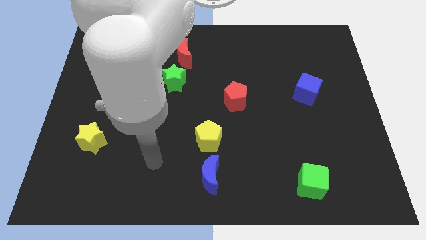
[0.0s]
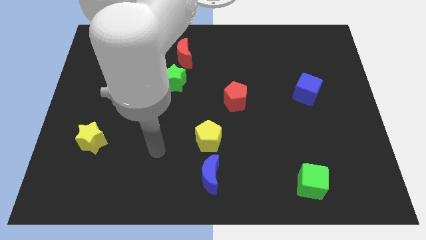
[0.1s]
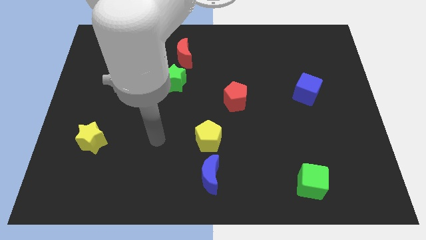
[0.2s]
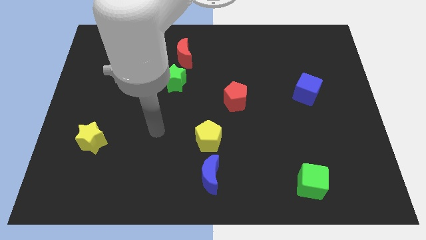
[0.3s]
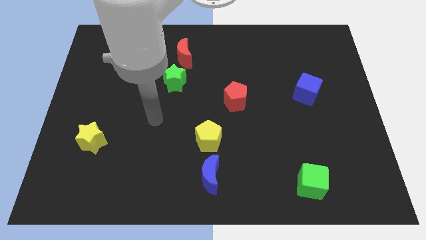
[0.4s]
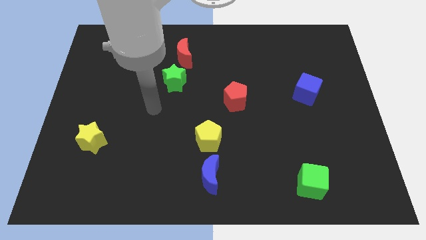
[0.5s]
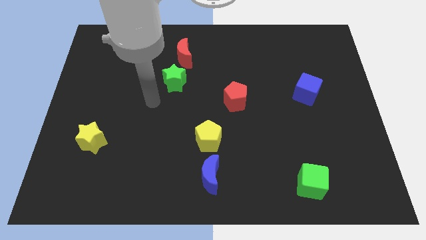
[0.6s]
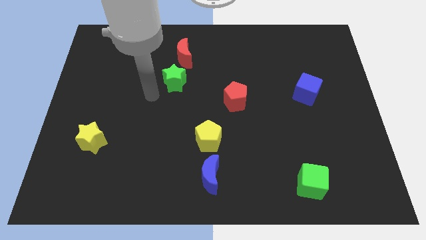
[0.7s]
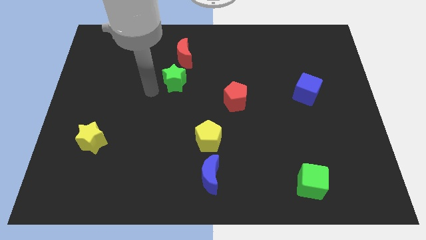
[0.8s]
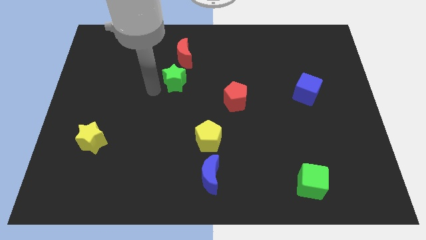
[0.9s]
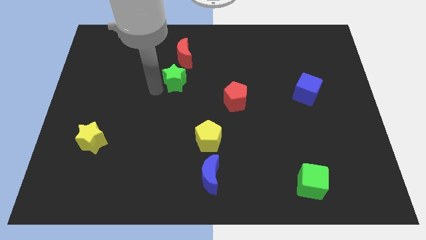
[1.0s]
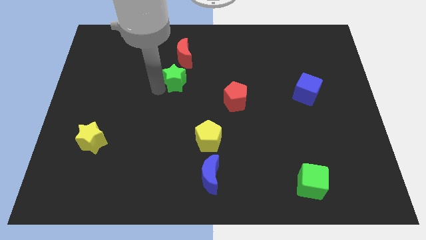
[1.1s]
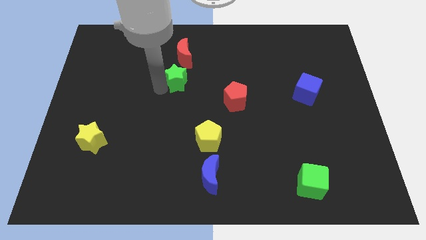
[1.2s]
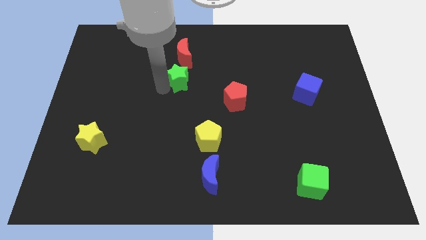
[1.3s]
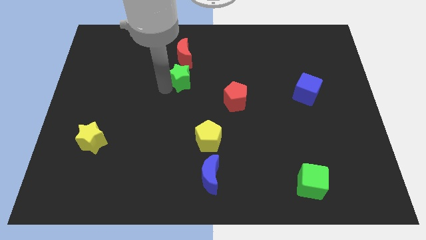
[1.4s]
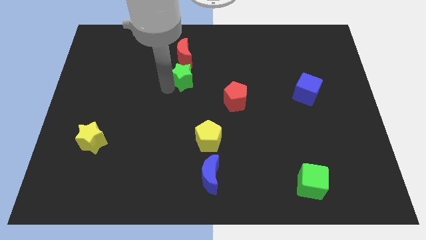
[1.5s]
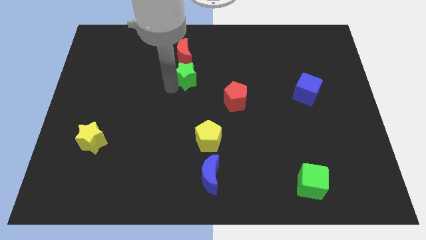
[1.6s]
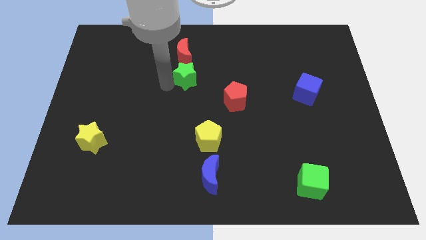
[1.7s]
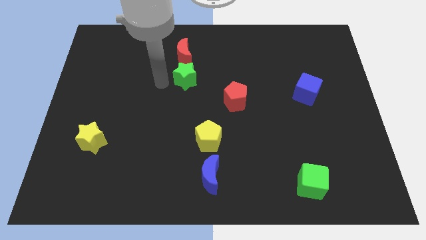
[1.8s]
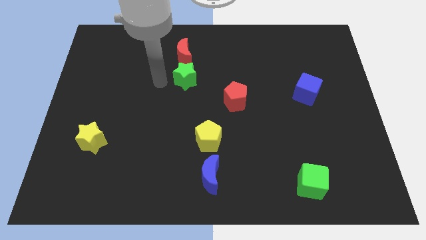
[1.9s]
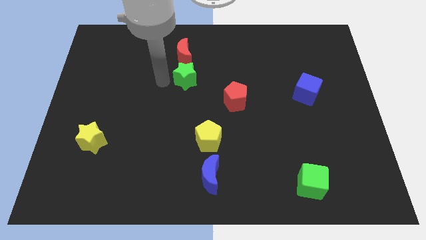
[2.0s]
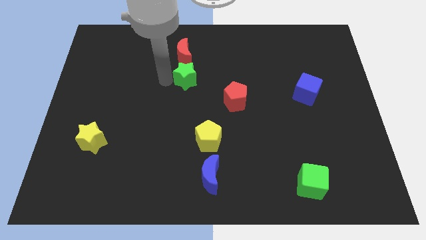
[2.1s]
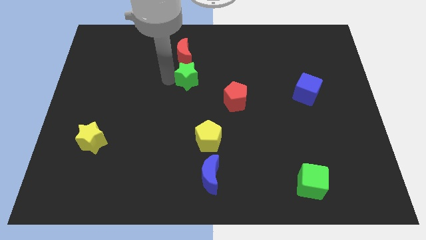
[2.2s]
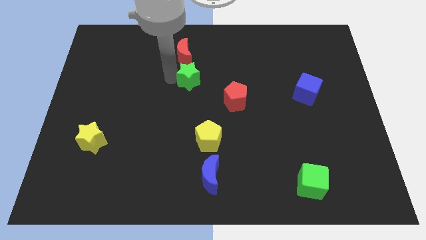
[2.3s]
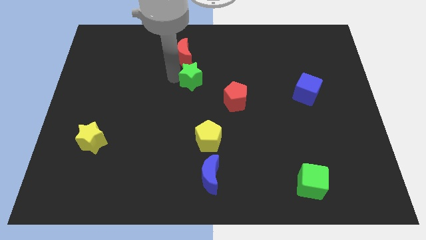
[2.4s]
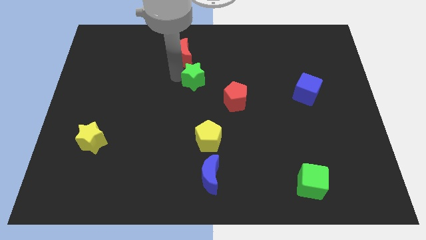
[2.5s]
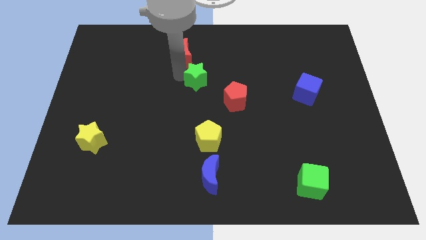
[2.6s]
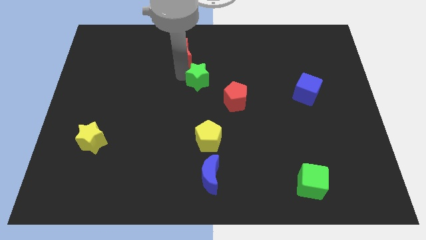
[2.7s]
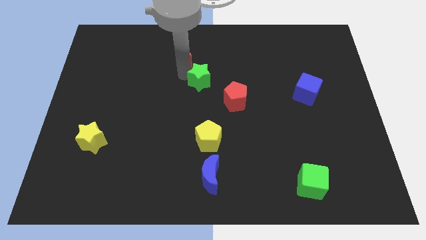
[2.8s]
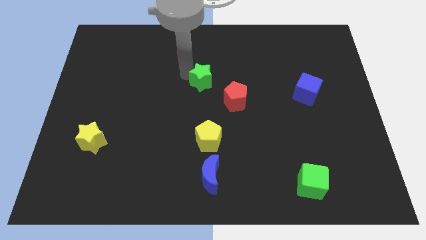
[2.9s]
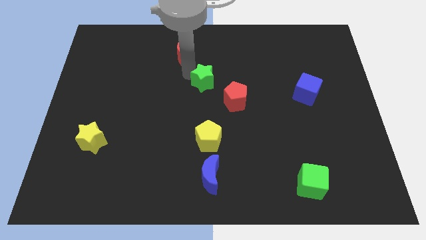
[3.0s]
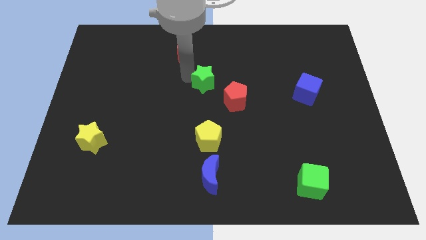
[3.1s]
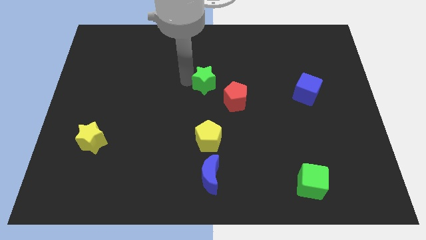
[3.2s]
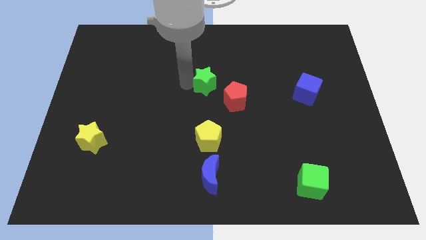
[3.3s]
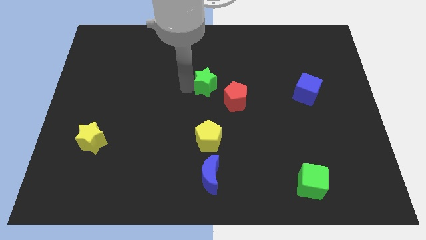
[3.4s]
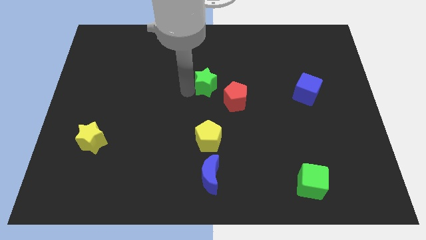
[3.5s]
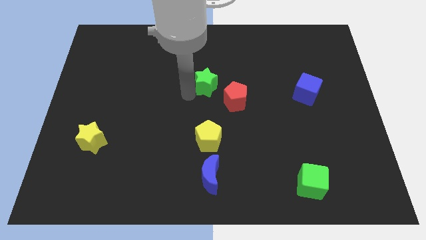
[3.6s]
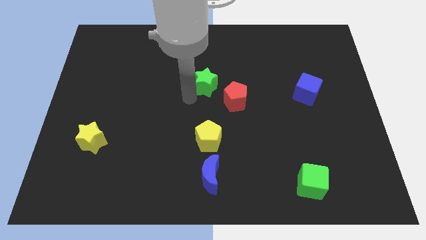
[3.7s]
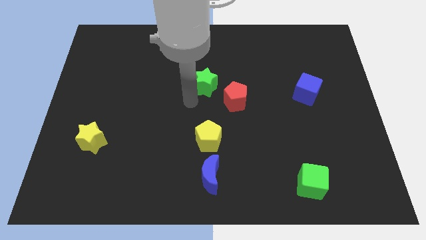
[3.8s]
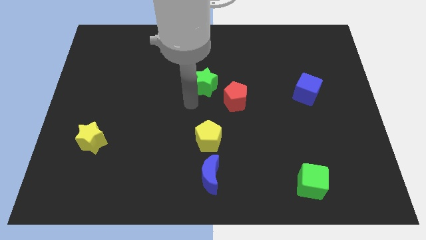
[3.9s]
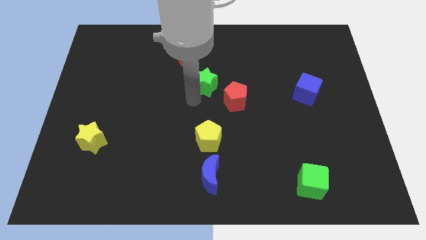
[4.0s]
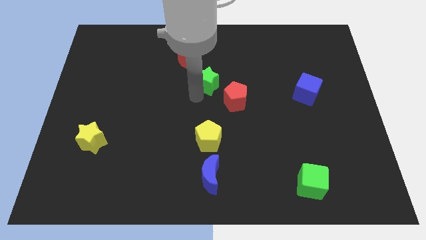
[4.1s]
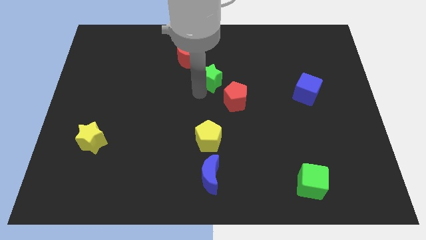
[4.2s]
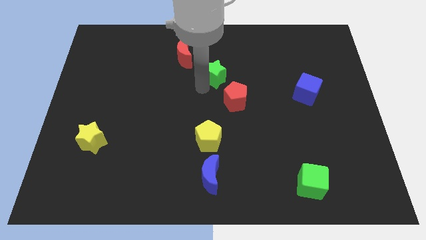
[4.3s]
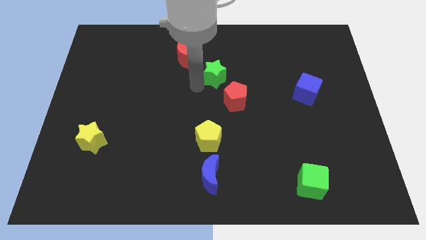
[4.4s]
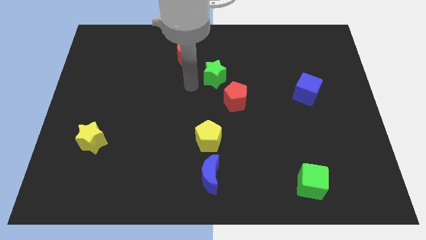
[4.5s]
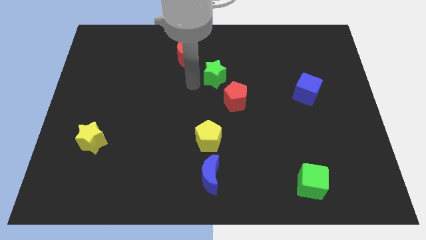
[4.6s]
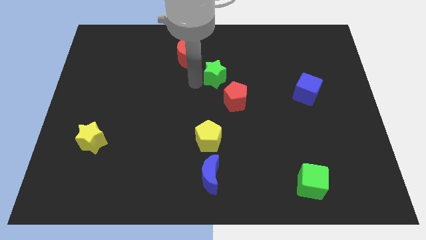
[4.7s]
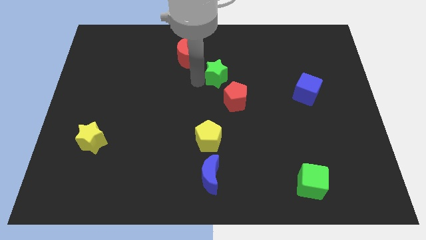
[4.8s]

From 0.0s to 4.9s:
slide the green star above the red pentagon

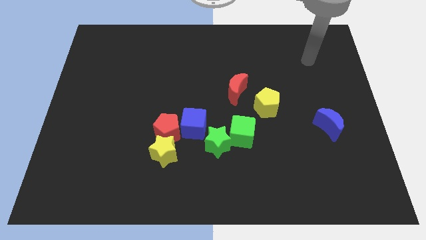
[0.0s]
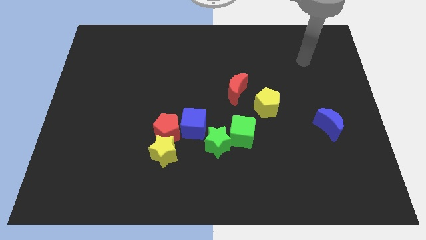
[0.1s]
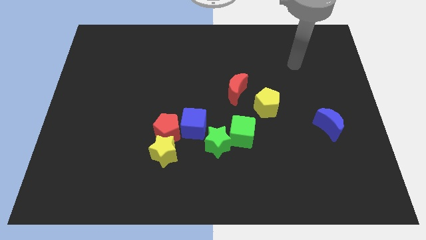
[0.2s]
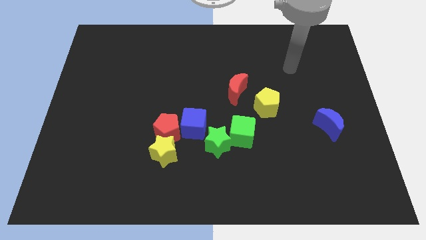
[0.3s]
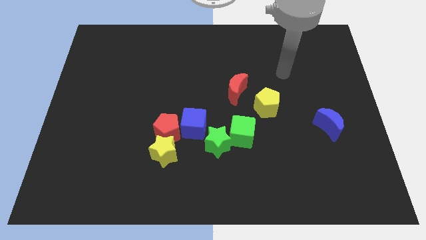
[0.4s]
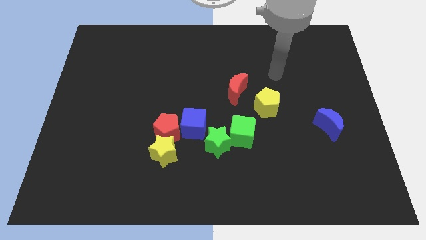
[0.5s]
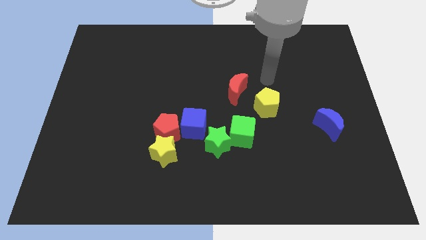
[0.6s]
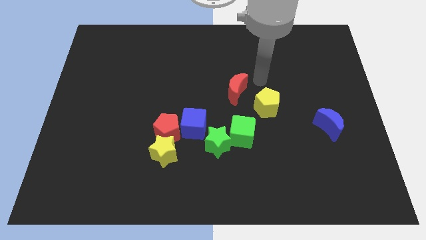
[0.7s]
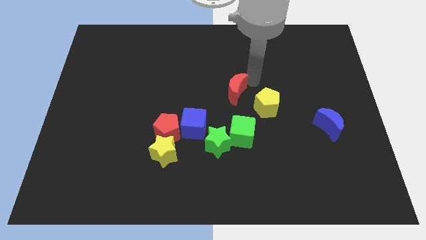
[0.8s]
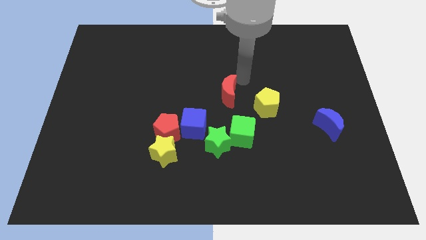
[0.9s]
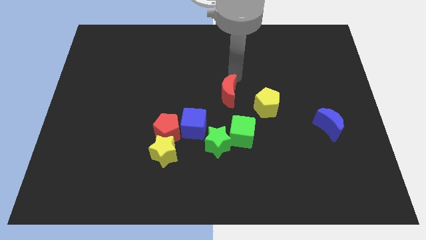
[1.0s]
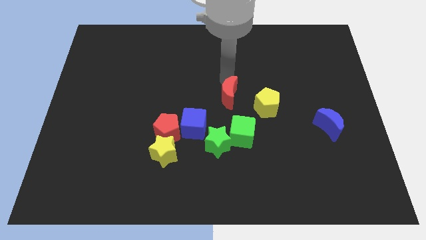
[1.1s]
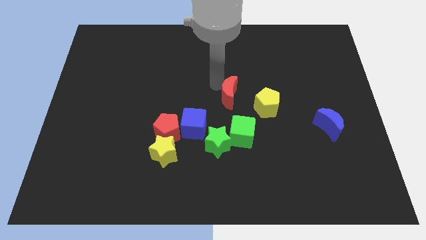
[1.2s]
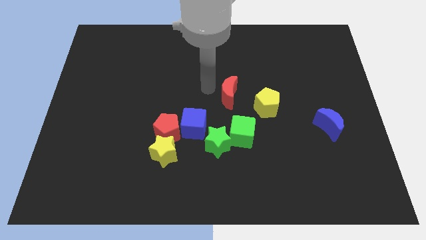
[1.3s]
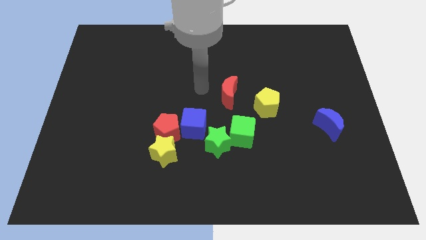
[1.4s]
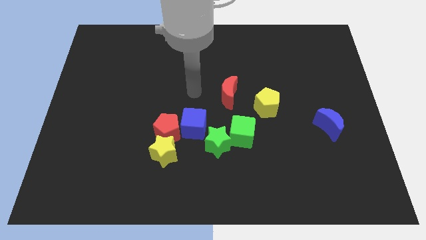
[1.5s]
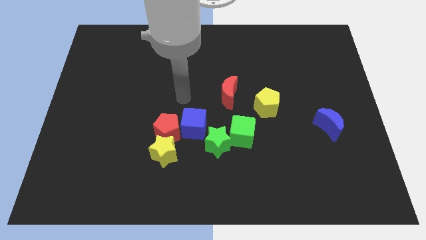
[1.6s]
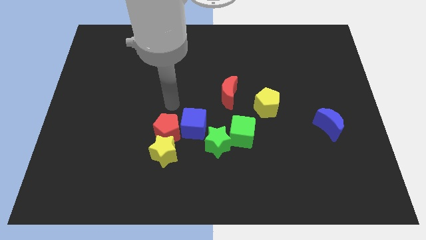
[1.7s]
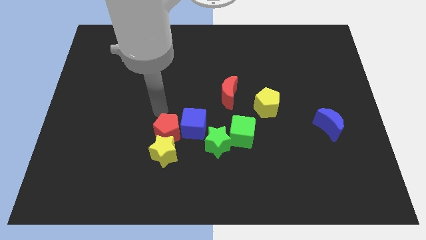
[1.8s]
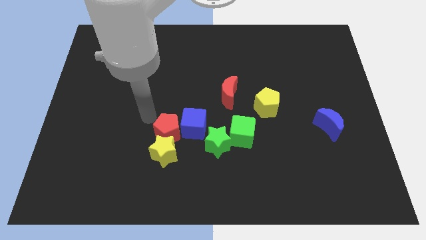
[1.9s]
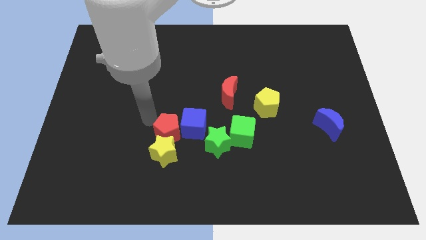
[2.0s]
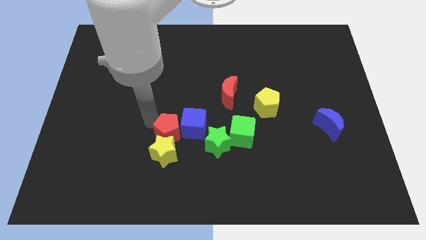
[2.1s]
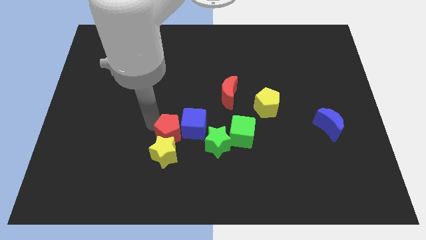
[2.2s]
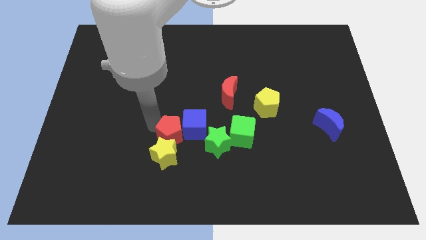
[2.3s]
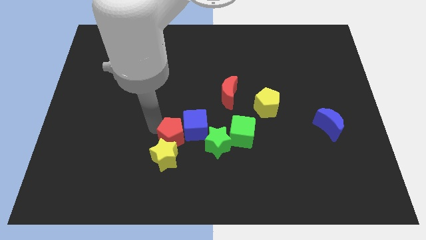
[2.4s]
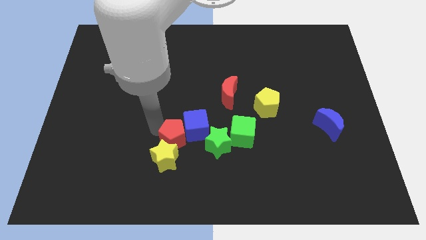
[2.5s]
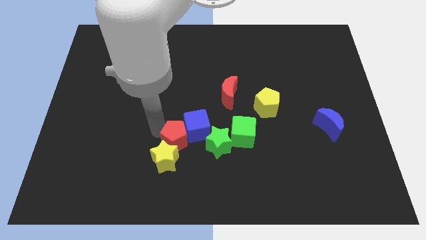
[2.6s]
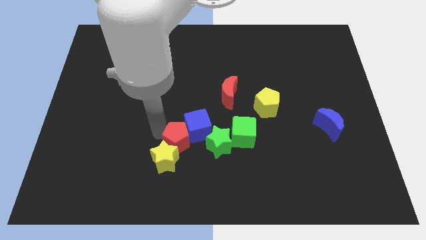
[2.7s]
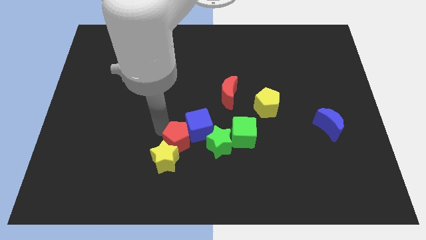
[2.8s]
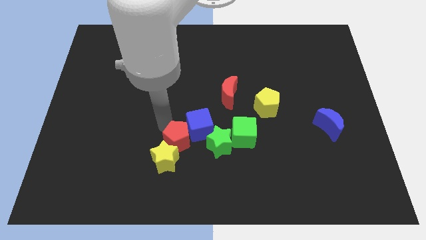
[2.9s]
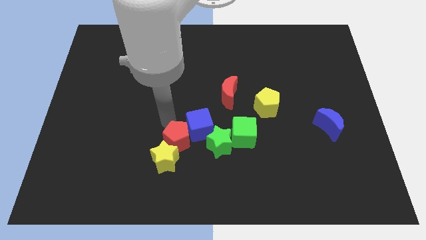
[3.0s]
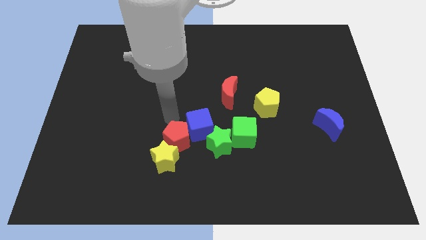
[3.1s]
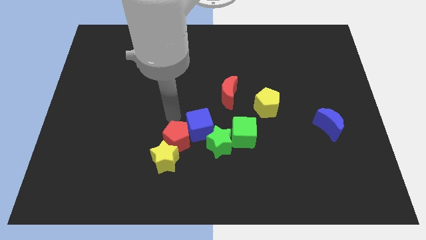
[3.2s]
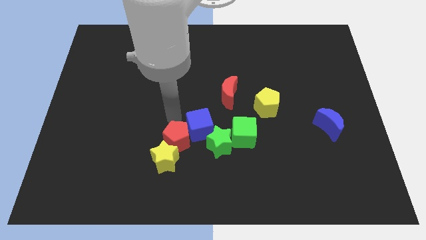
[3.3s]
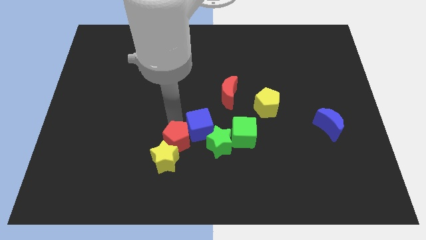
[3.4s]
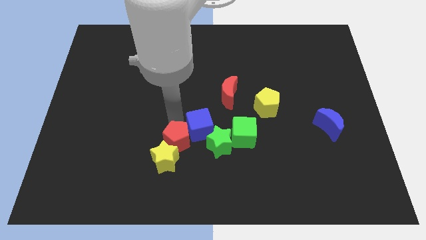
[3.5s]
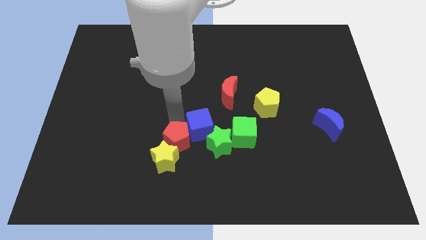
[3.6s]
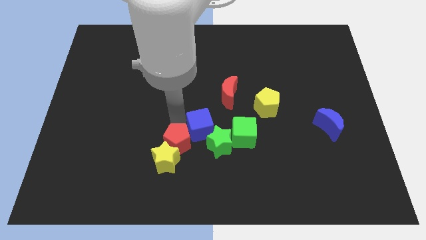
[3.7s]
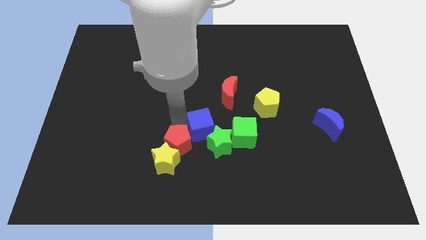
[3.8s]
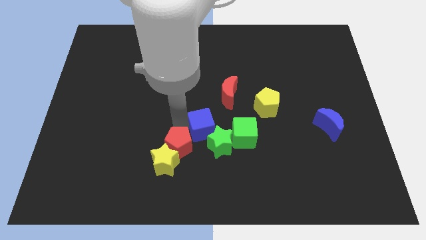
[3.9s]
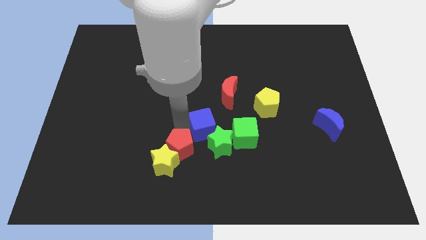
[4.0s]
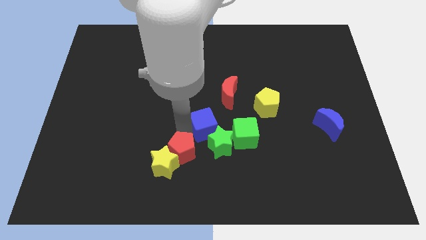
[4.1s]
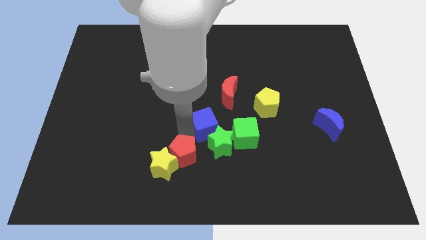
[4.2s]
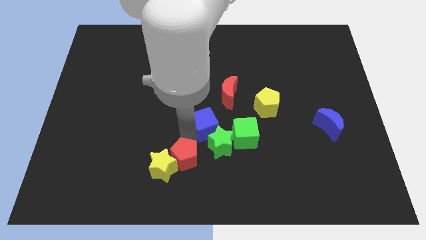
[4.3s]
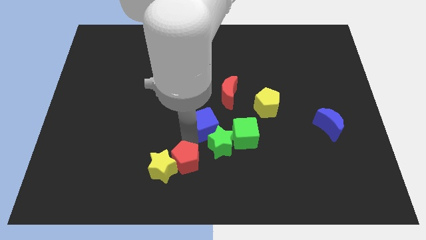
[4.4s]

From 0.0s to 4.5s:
push the red pentagon diagonally down and to the right of the yellow star
